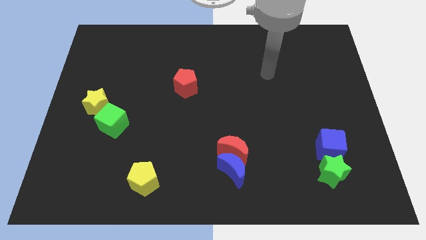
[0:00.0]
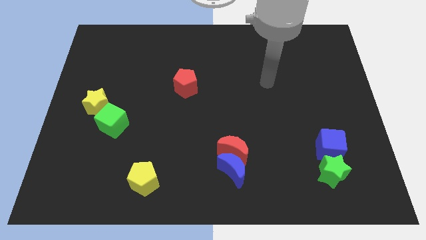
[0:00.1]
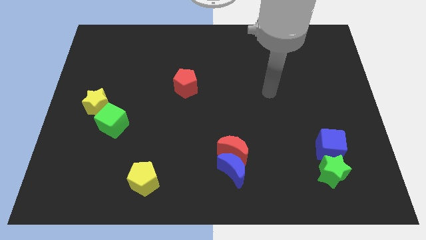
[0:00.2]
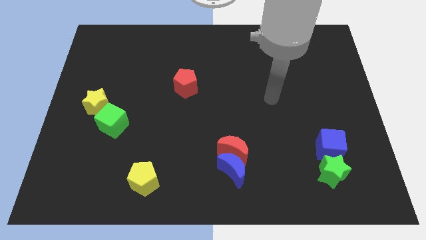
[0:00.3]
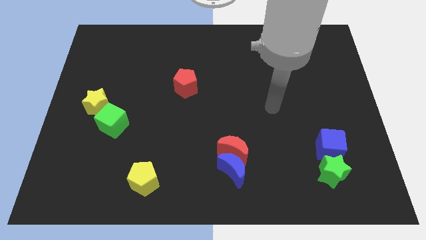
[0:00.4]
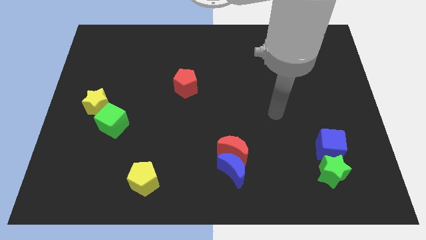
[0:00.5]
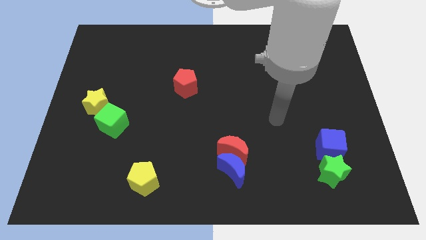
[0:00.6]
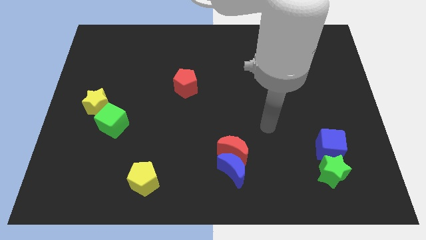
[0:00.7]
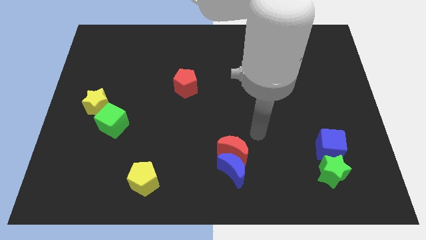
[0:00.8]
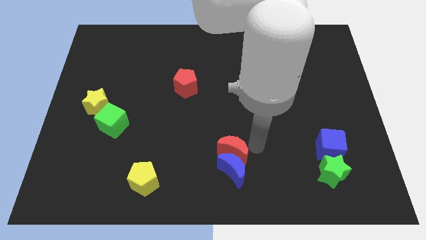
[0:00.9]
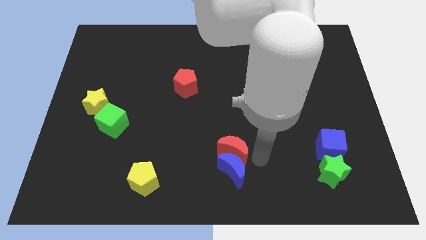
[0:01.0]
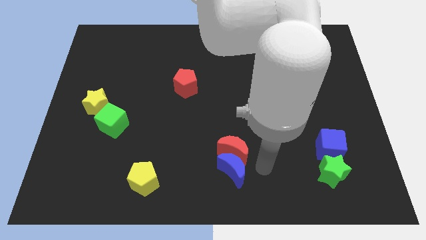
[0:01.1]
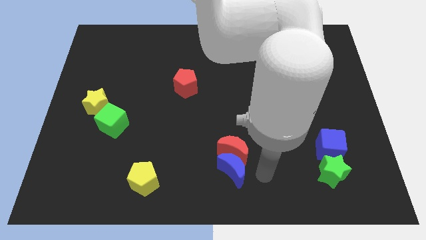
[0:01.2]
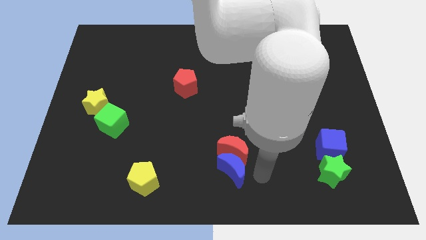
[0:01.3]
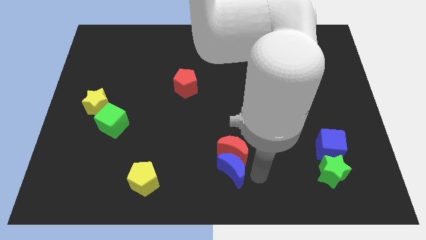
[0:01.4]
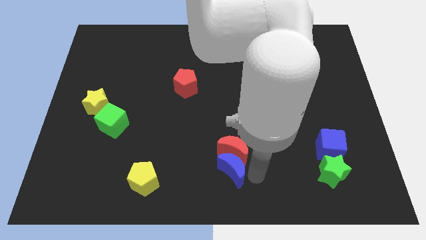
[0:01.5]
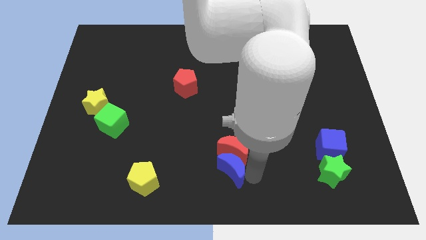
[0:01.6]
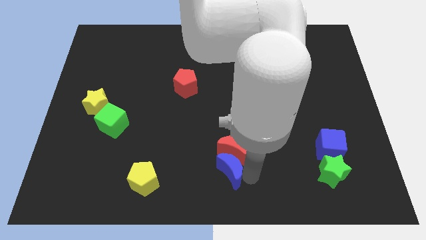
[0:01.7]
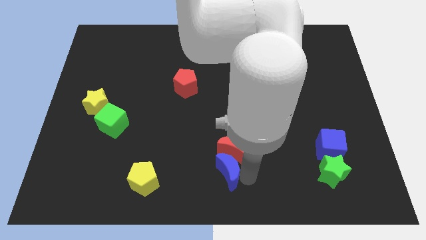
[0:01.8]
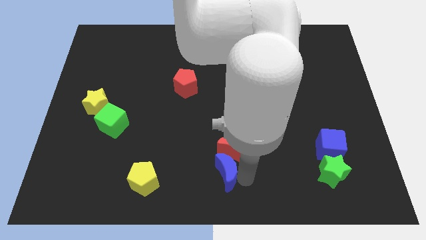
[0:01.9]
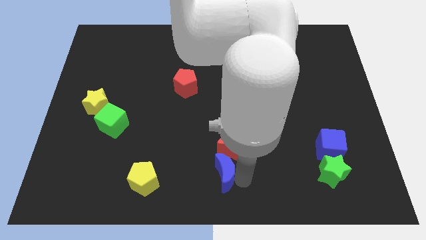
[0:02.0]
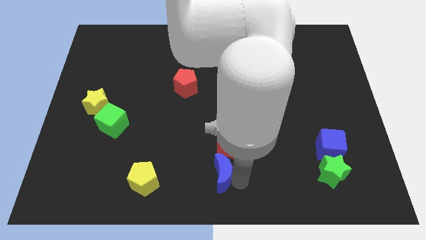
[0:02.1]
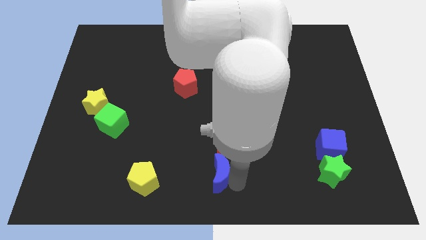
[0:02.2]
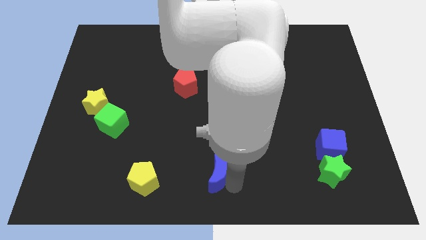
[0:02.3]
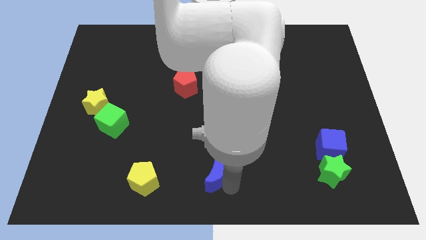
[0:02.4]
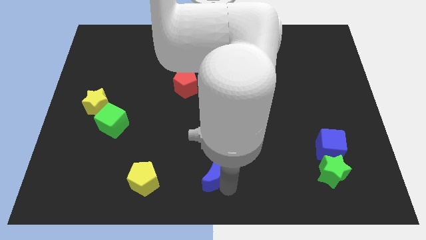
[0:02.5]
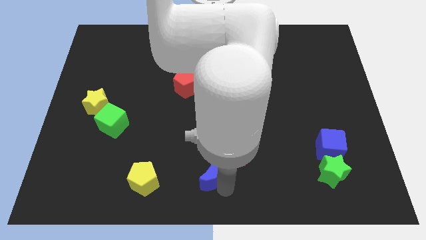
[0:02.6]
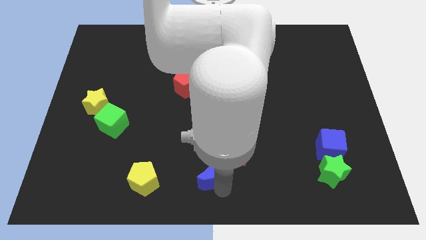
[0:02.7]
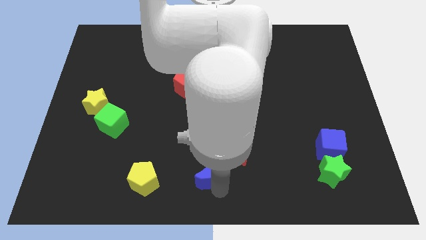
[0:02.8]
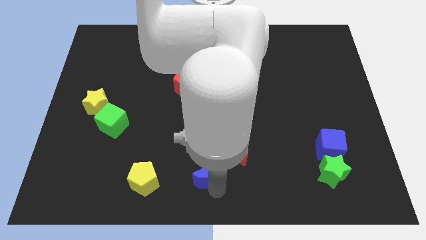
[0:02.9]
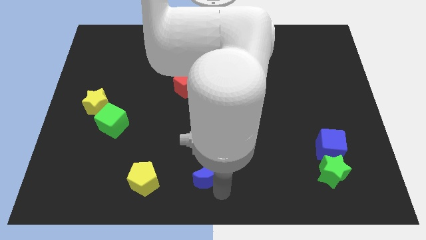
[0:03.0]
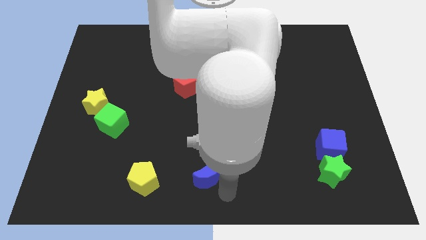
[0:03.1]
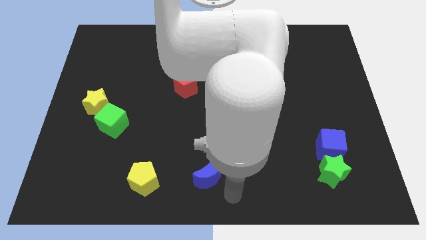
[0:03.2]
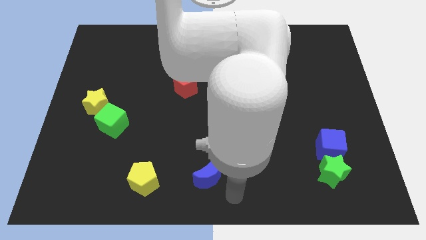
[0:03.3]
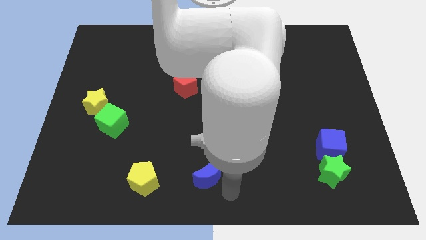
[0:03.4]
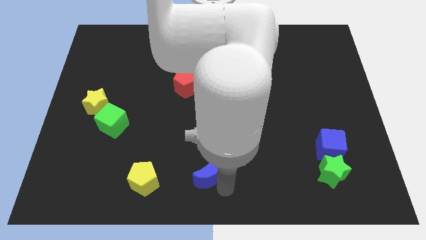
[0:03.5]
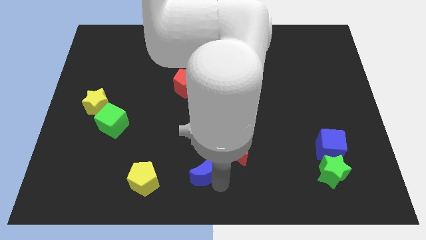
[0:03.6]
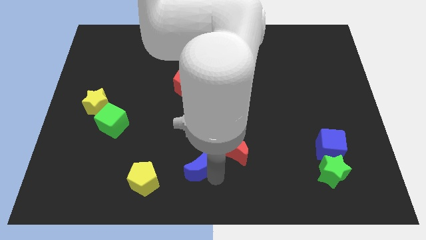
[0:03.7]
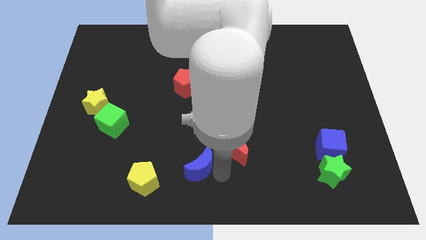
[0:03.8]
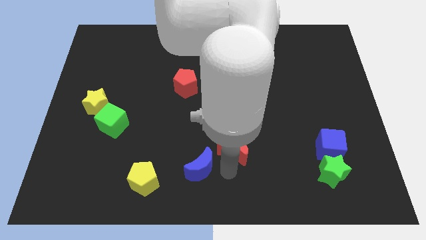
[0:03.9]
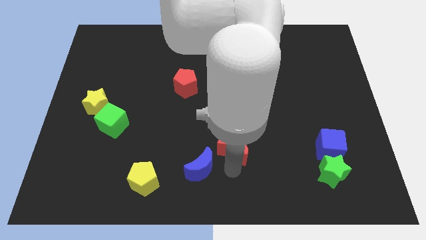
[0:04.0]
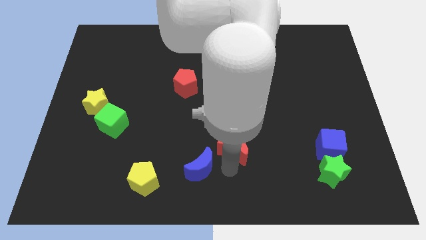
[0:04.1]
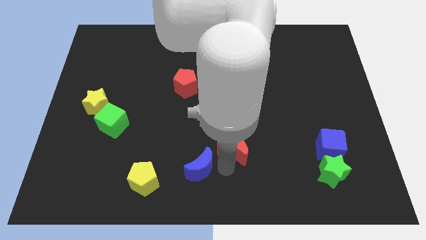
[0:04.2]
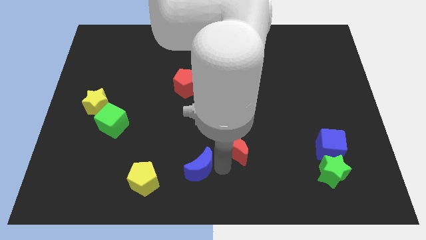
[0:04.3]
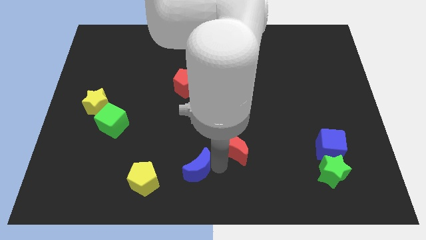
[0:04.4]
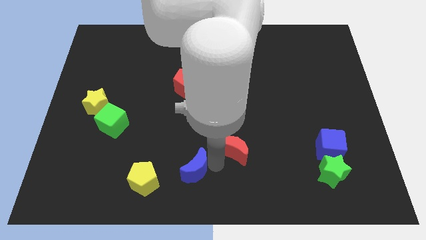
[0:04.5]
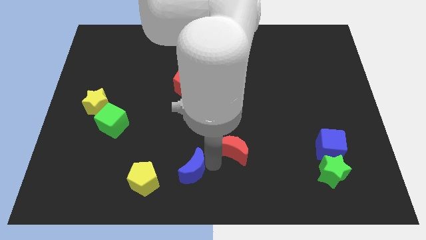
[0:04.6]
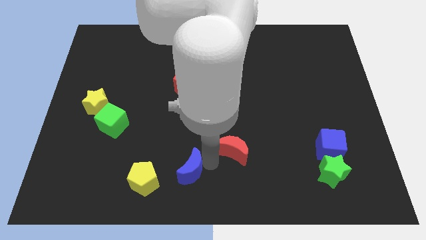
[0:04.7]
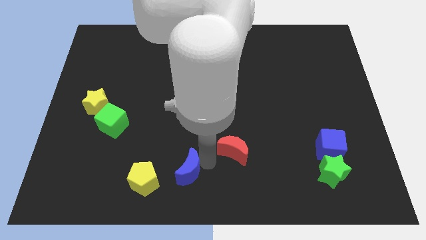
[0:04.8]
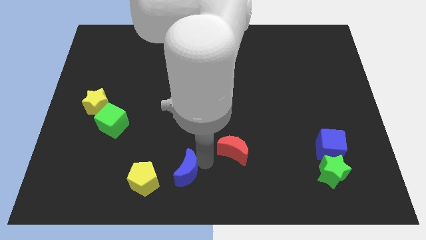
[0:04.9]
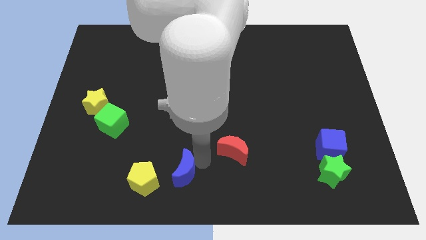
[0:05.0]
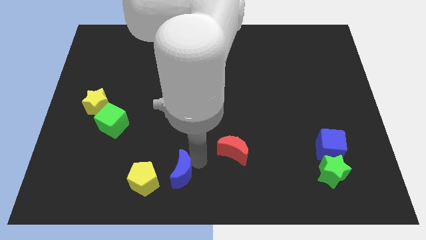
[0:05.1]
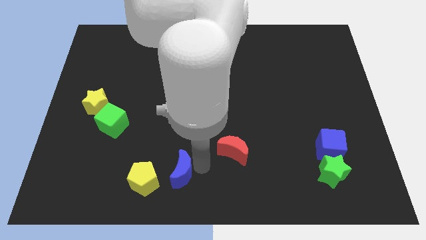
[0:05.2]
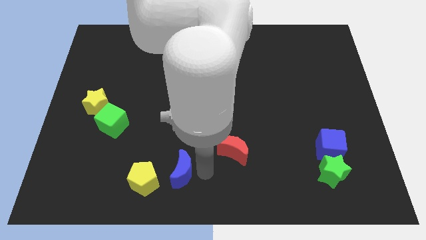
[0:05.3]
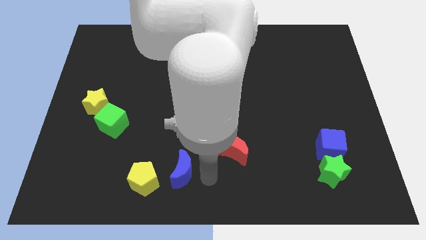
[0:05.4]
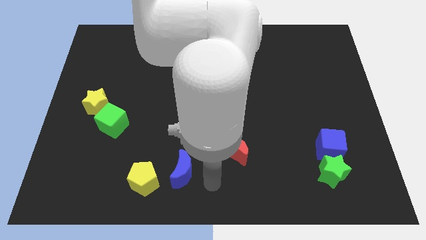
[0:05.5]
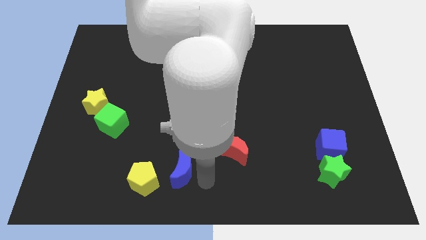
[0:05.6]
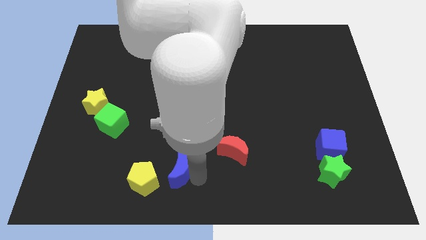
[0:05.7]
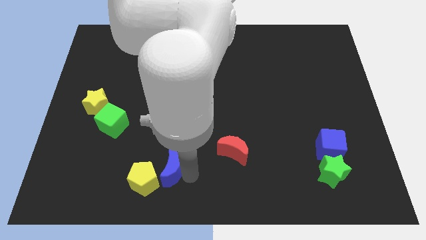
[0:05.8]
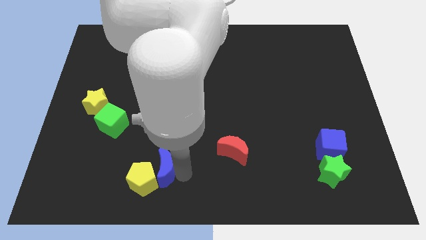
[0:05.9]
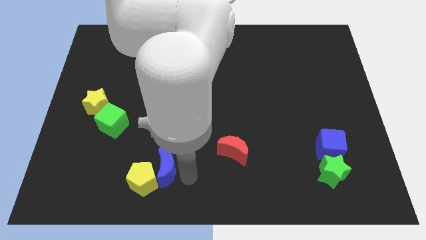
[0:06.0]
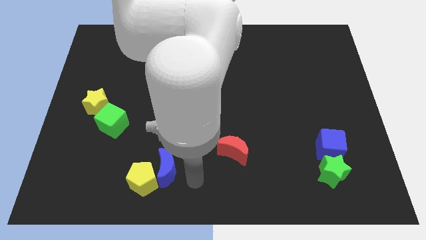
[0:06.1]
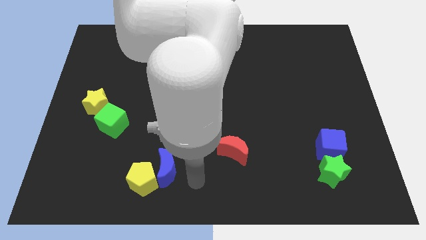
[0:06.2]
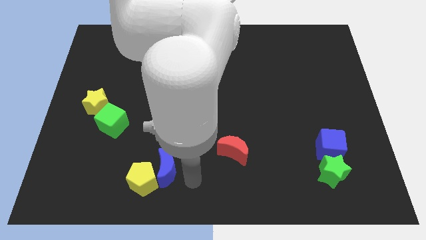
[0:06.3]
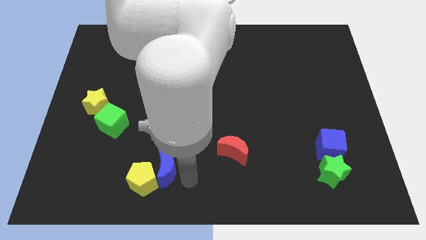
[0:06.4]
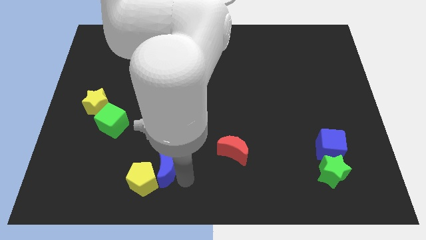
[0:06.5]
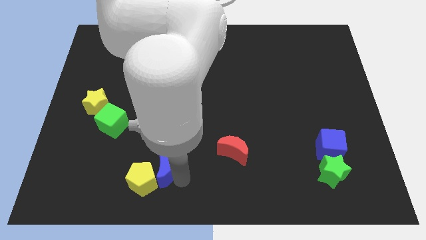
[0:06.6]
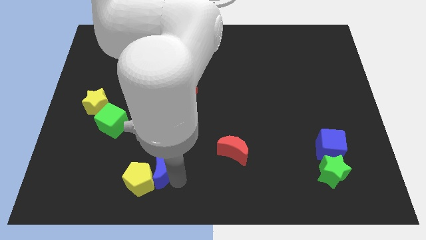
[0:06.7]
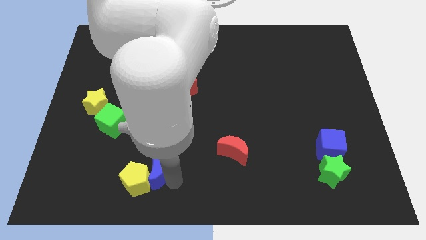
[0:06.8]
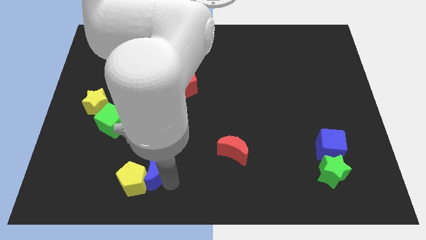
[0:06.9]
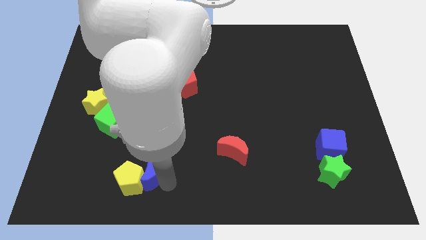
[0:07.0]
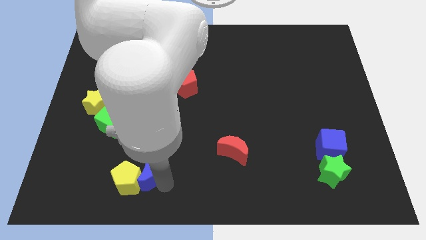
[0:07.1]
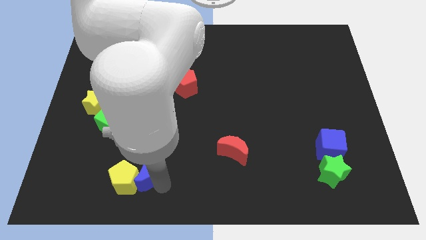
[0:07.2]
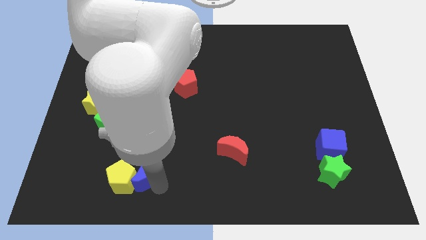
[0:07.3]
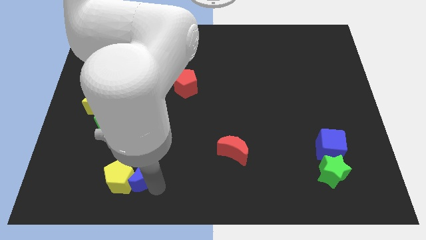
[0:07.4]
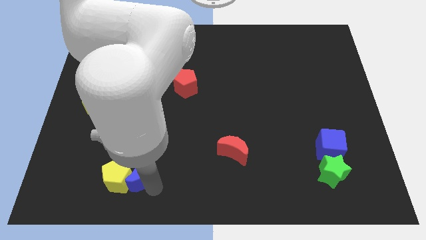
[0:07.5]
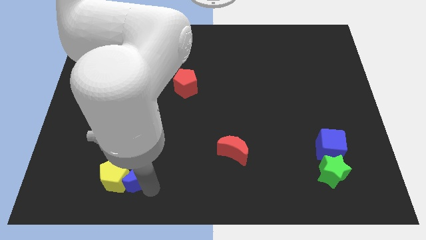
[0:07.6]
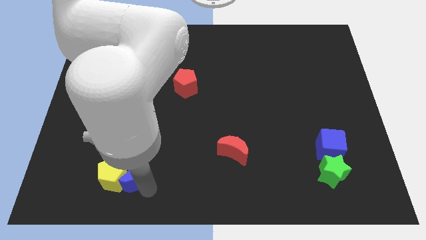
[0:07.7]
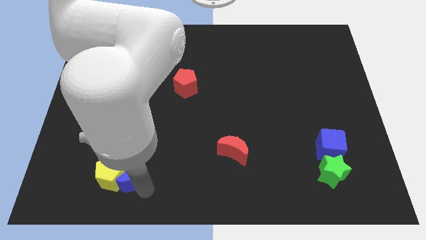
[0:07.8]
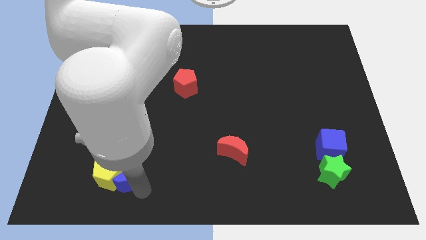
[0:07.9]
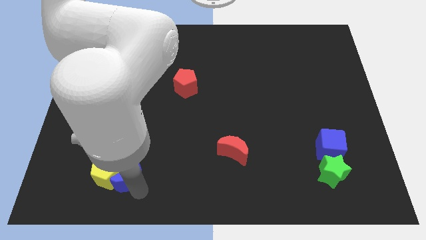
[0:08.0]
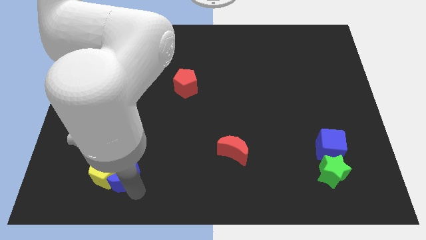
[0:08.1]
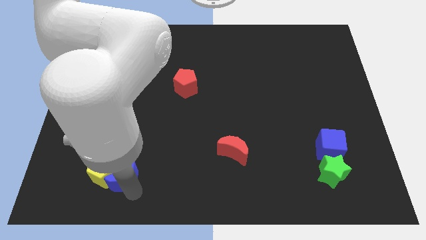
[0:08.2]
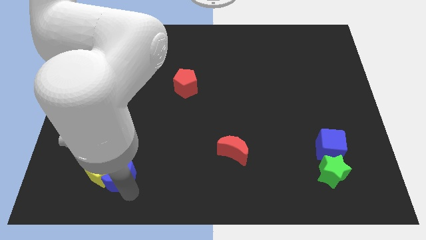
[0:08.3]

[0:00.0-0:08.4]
move the blue moon below the green cube
